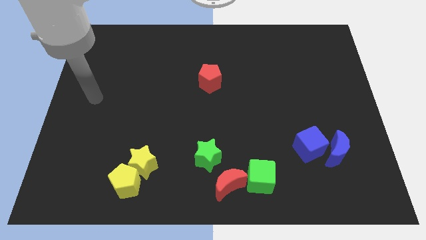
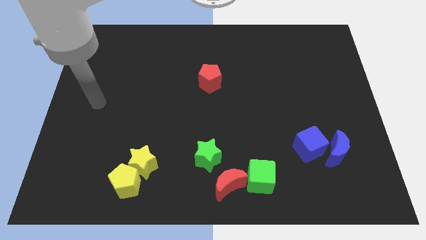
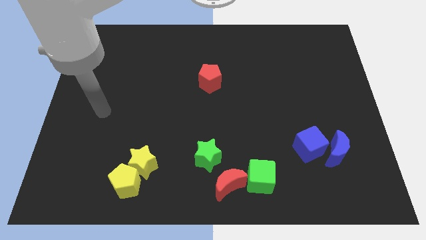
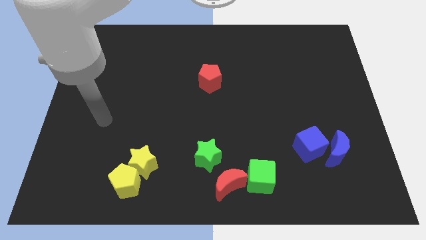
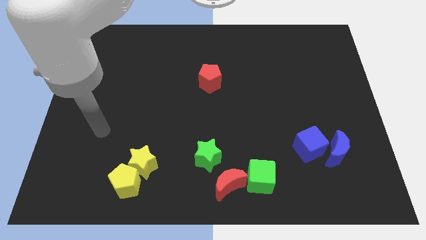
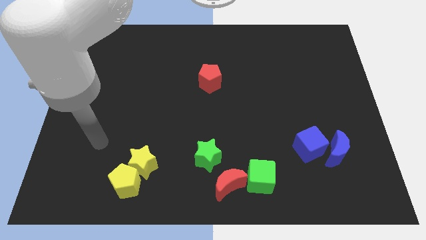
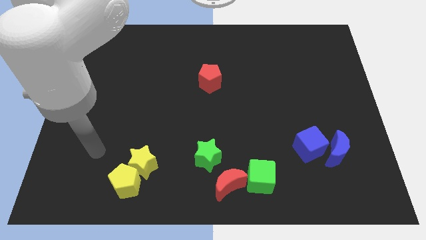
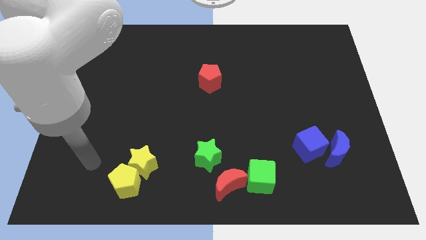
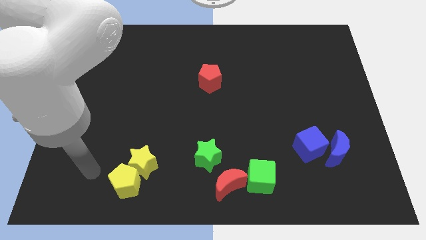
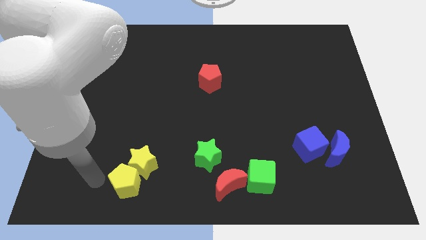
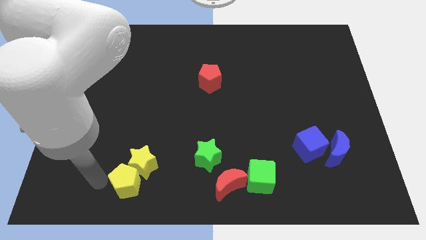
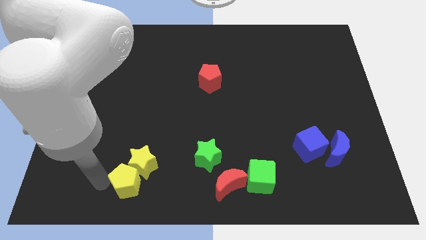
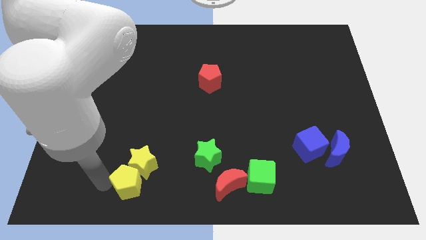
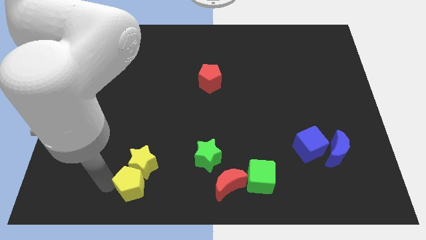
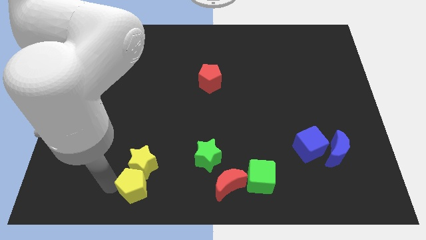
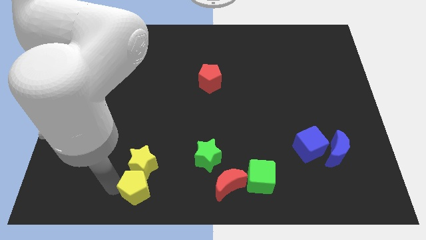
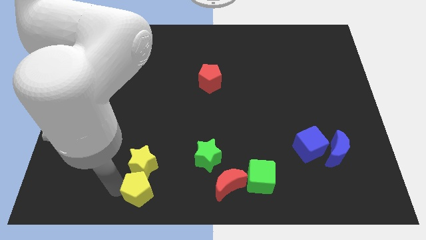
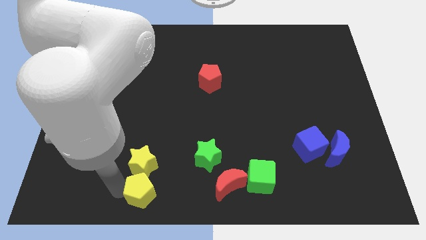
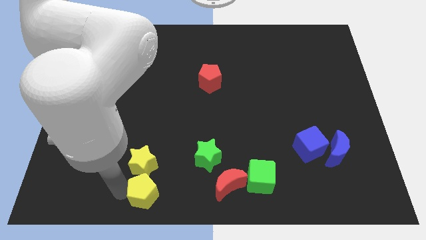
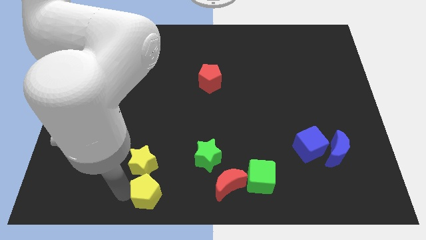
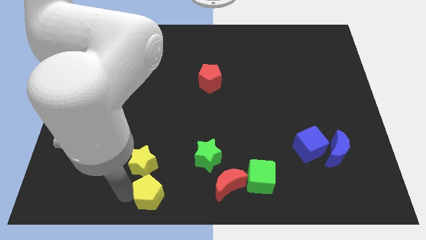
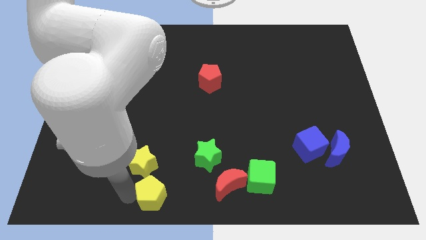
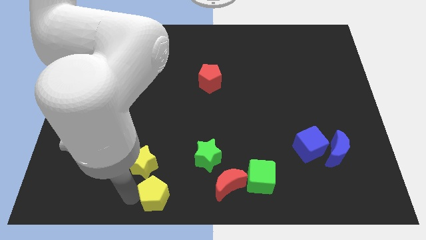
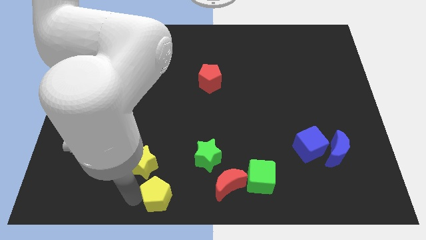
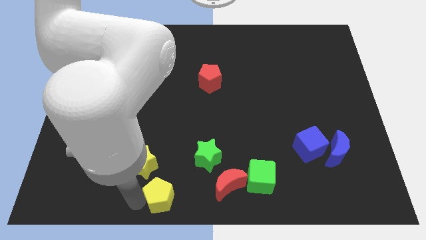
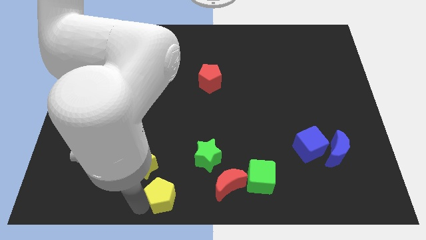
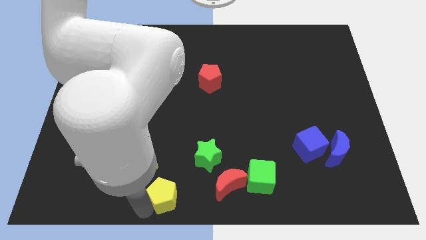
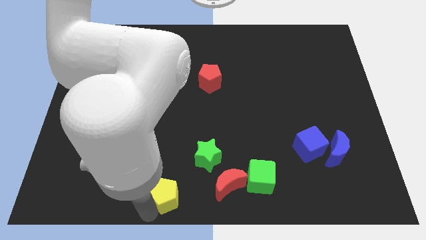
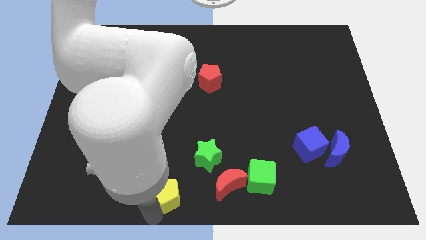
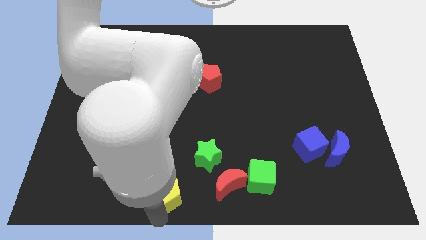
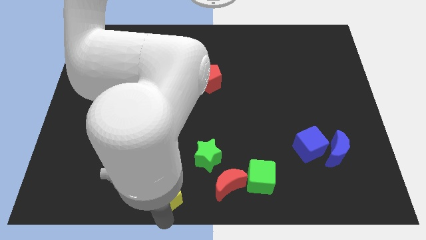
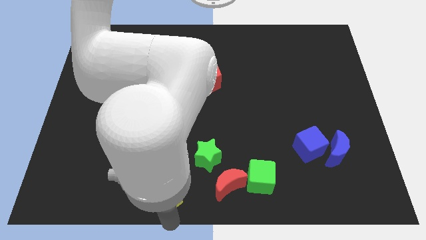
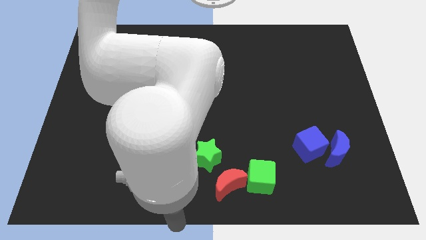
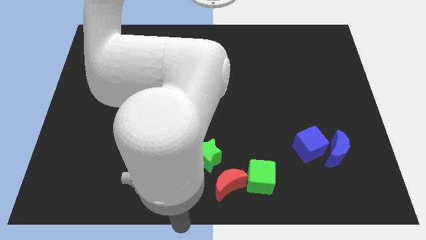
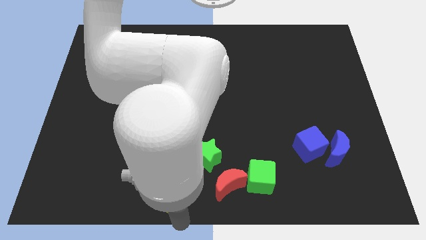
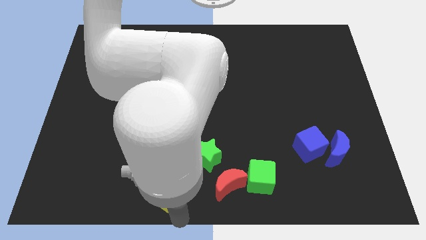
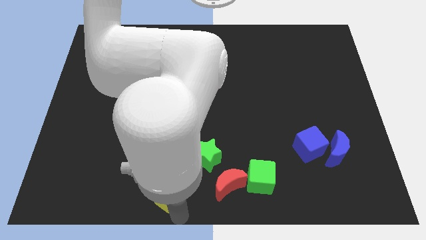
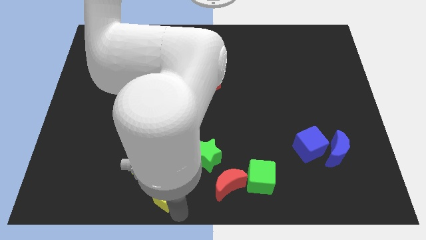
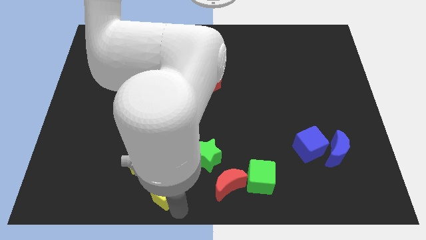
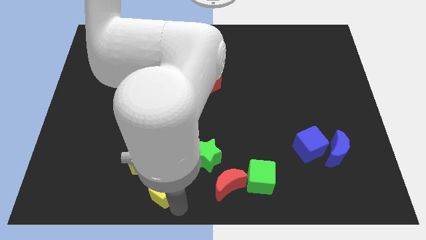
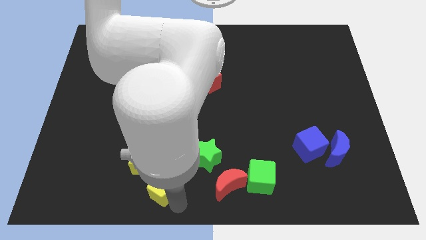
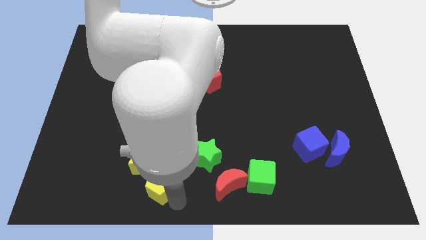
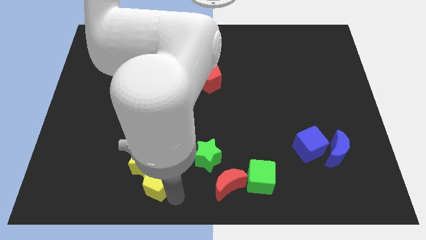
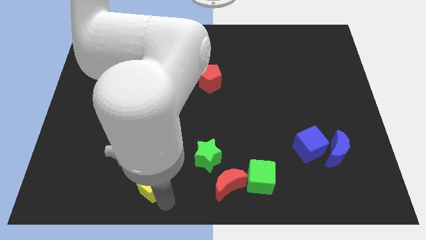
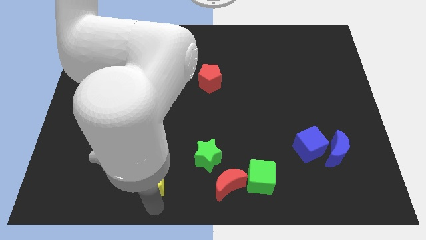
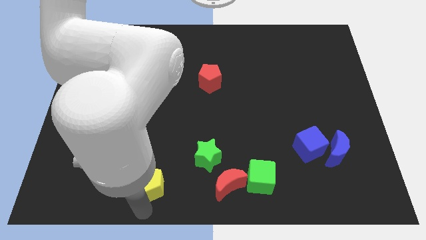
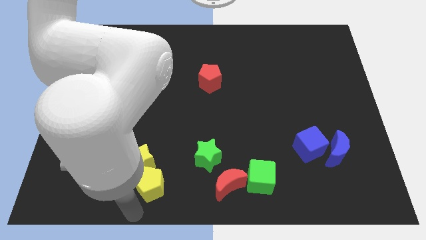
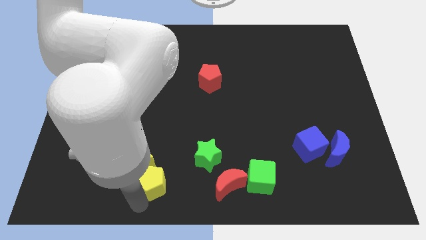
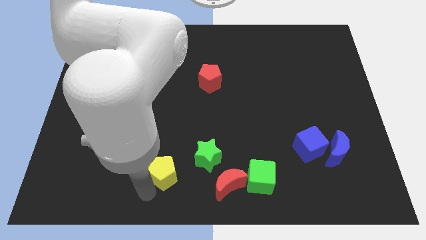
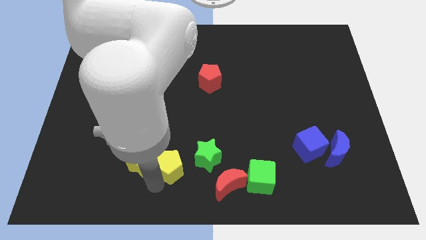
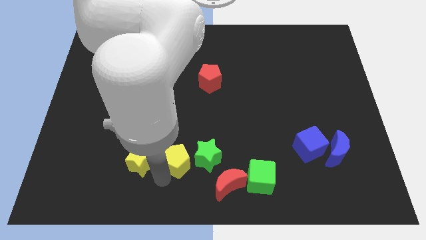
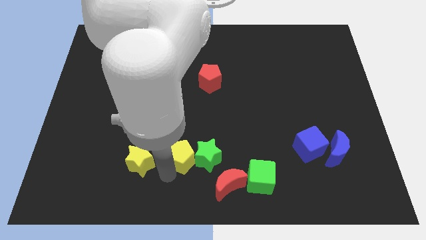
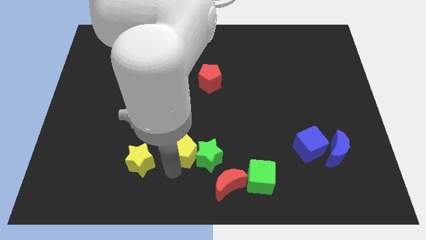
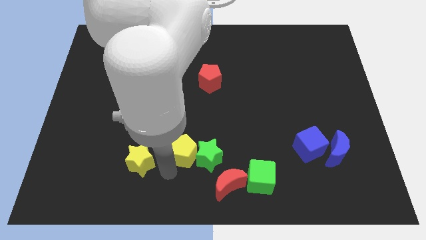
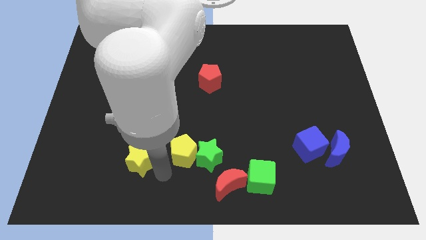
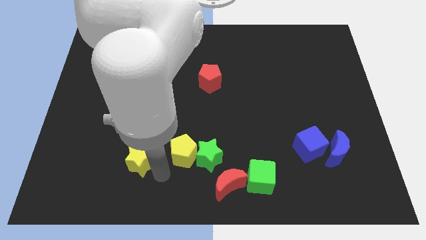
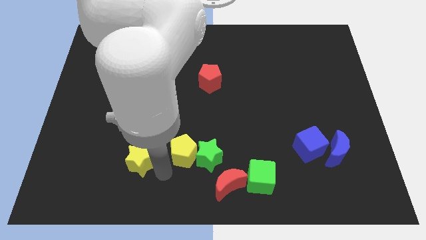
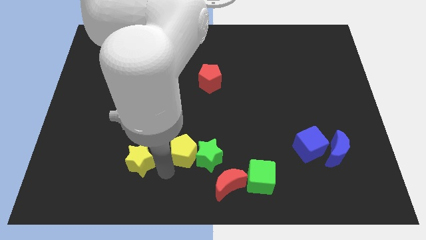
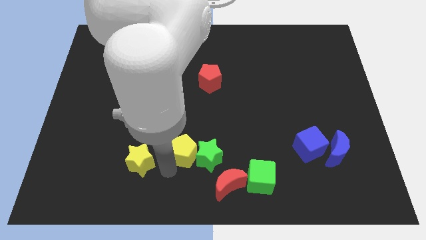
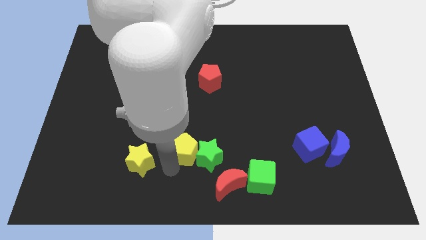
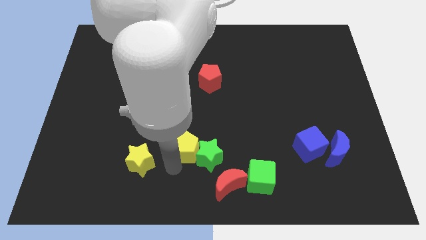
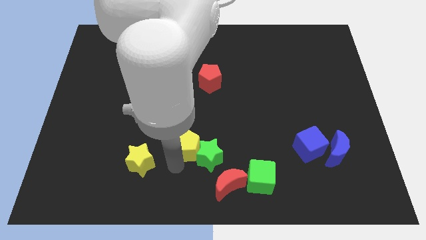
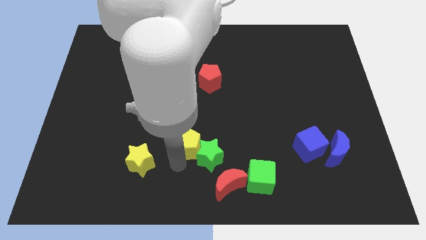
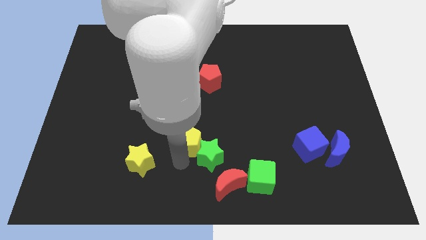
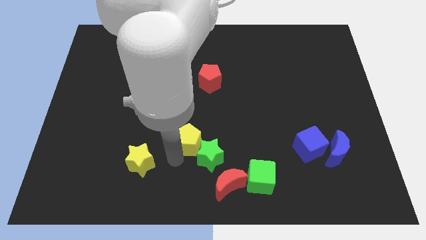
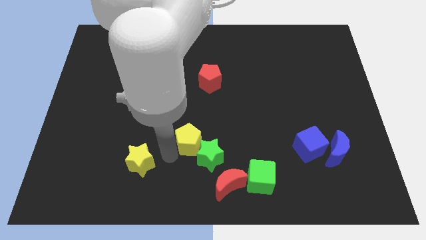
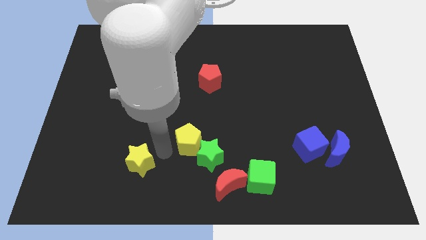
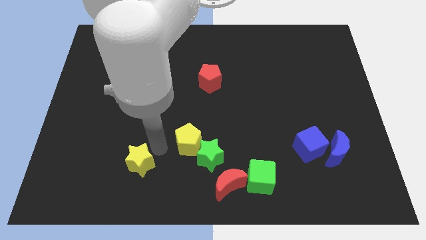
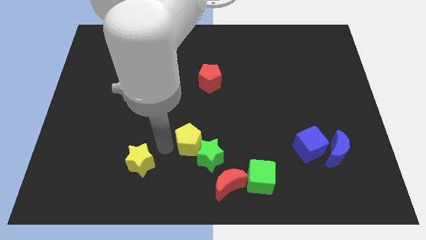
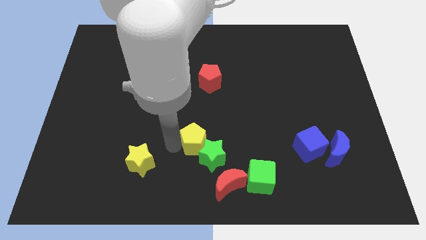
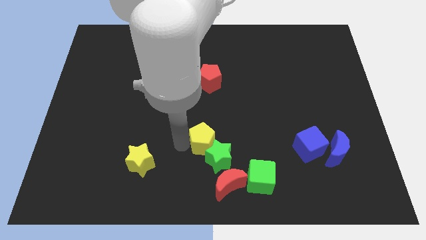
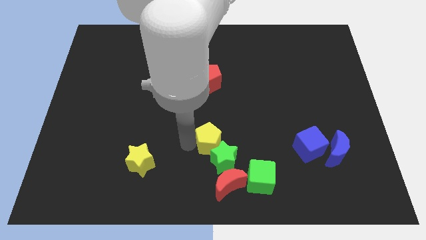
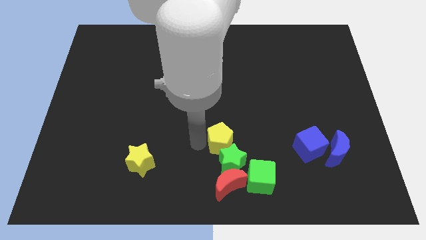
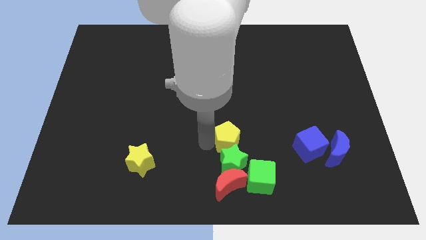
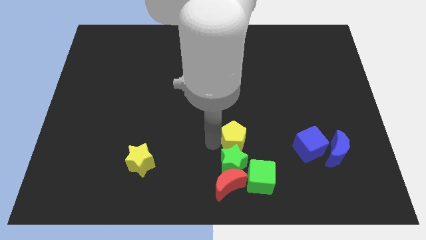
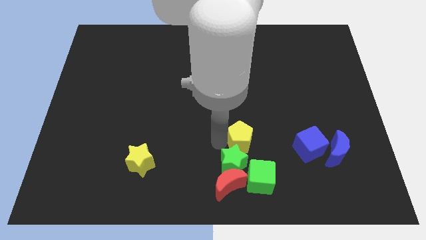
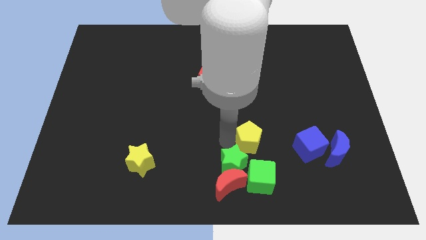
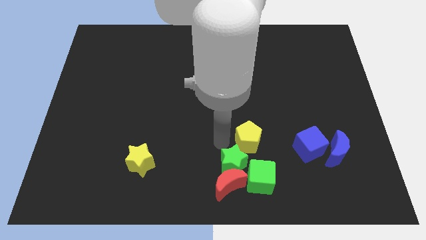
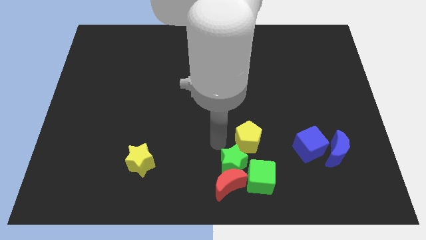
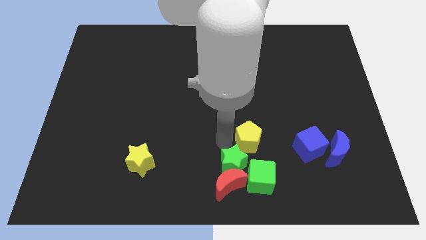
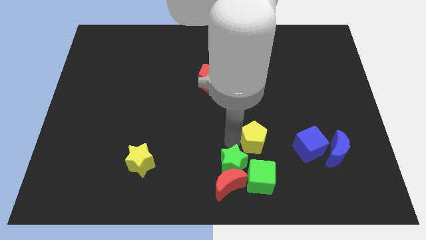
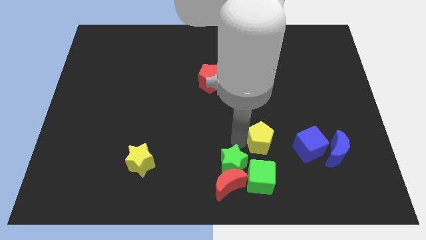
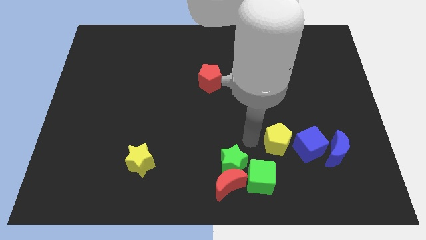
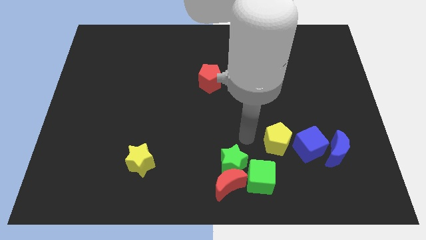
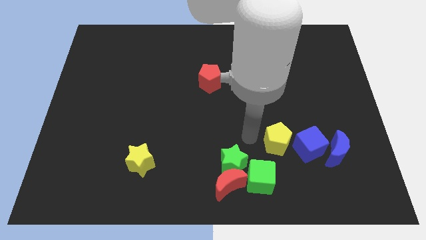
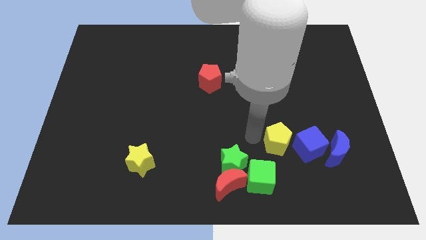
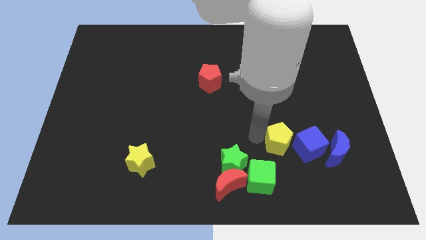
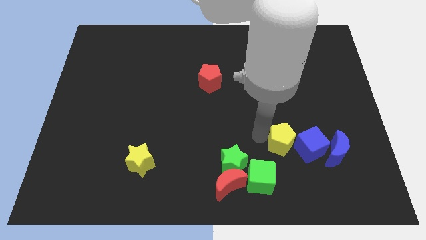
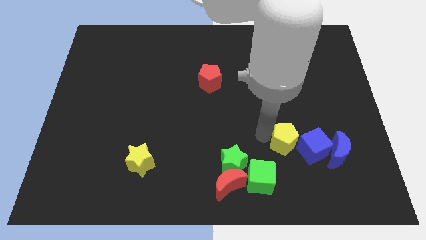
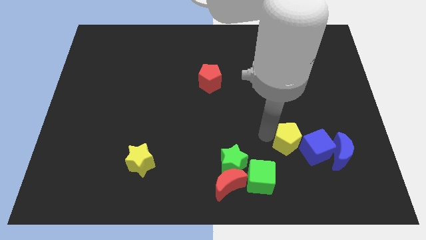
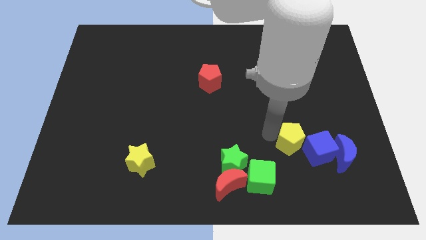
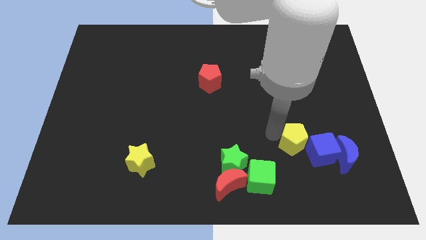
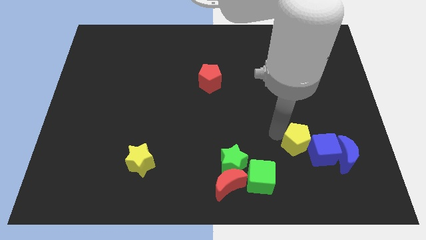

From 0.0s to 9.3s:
slide the yellow pentagon towards the blue cube
